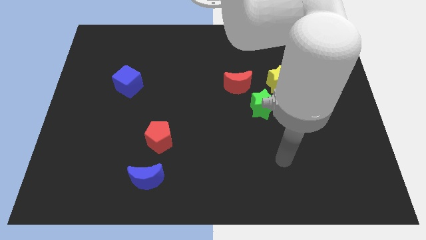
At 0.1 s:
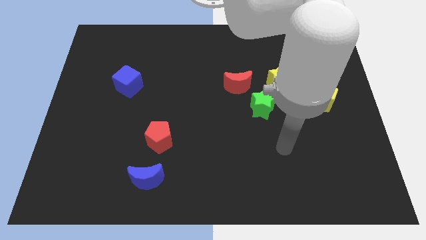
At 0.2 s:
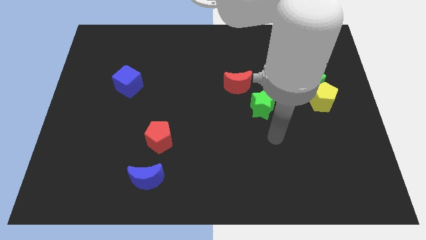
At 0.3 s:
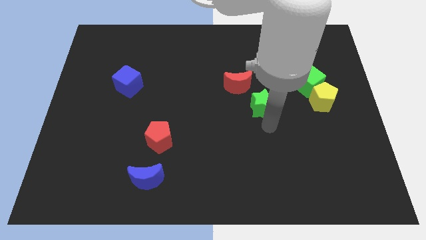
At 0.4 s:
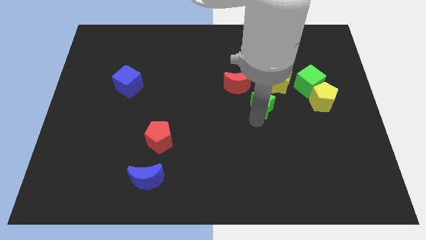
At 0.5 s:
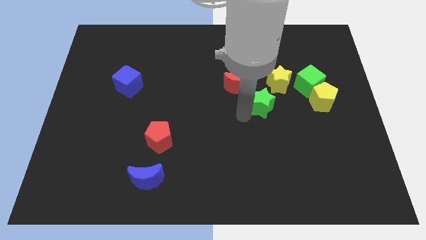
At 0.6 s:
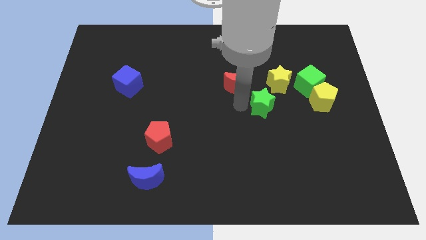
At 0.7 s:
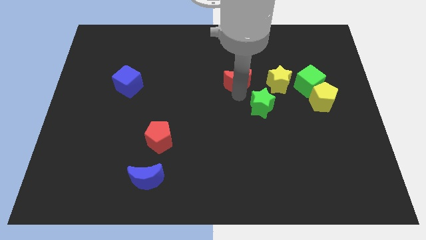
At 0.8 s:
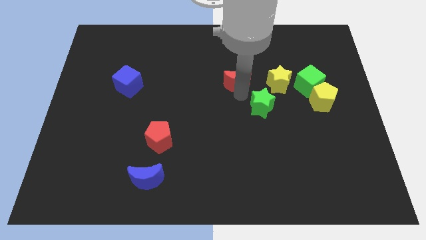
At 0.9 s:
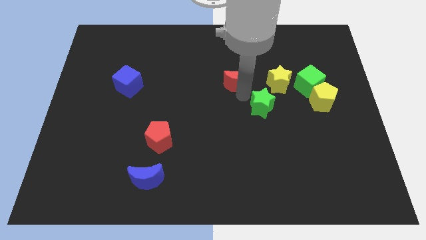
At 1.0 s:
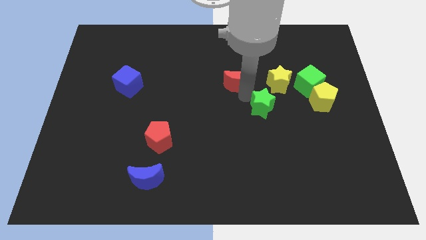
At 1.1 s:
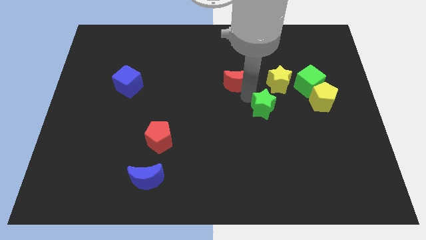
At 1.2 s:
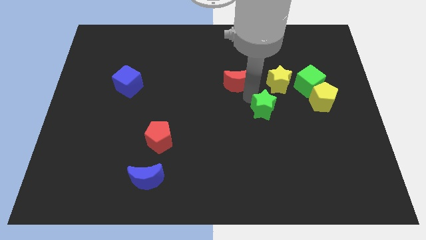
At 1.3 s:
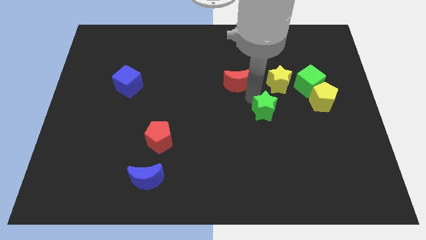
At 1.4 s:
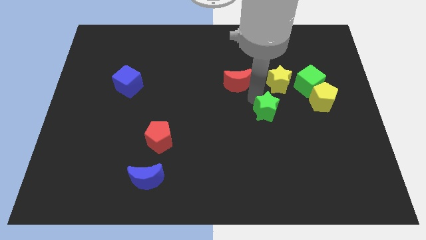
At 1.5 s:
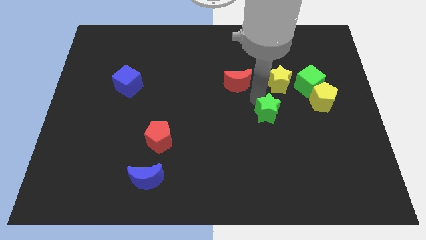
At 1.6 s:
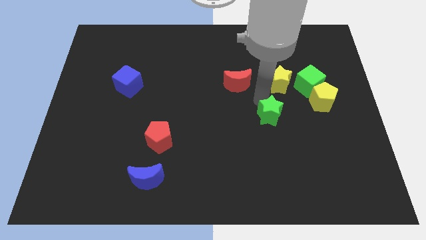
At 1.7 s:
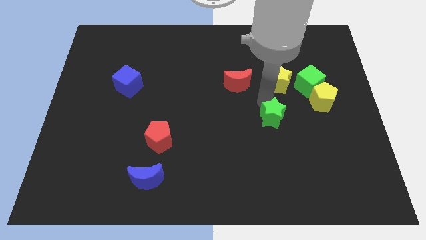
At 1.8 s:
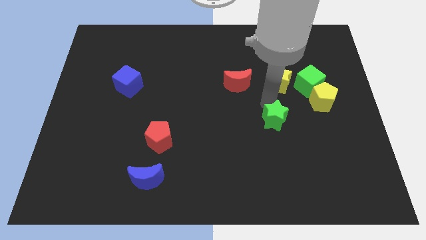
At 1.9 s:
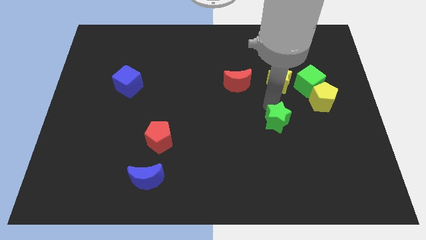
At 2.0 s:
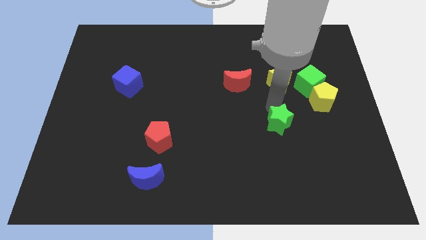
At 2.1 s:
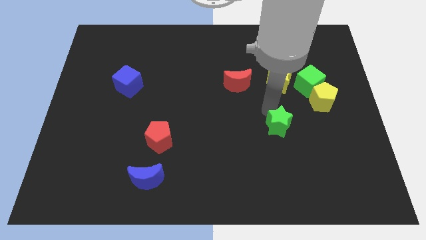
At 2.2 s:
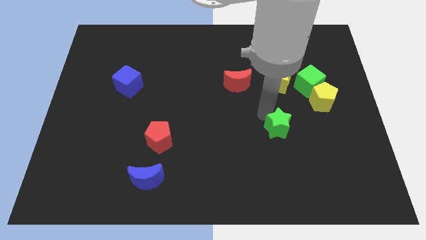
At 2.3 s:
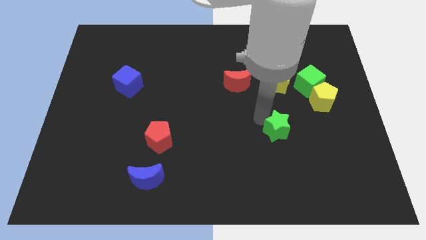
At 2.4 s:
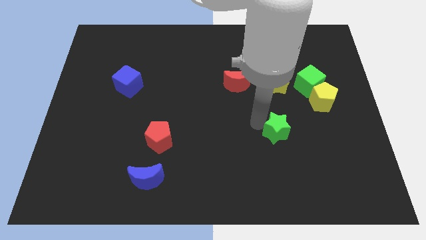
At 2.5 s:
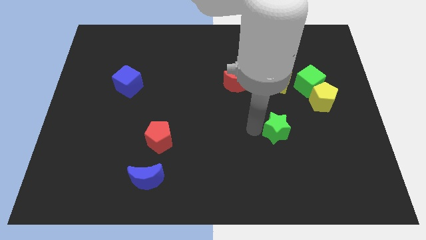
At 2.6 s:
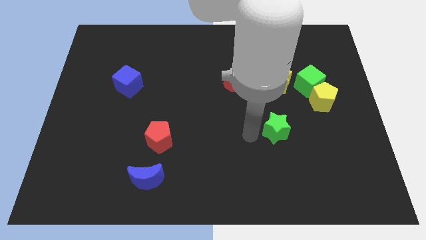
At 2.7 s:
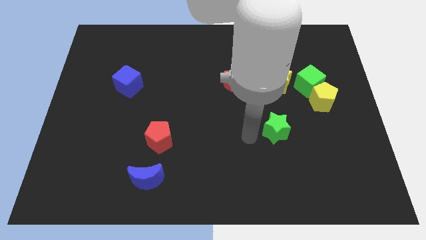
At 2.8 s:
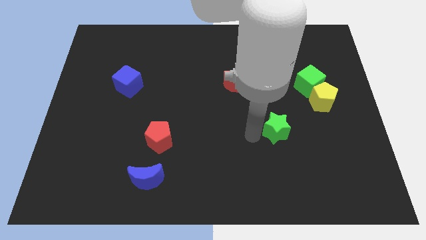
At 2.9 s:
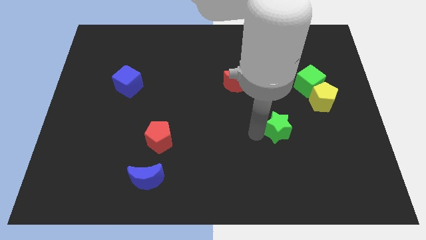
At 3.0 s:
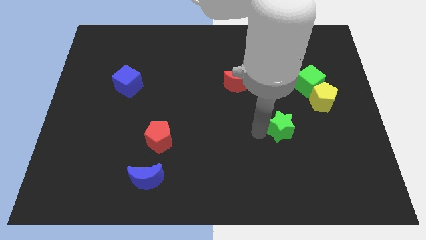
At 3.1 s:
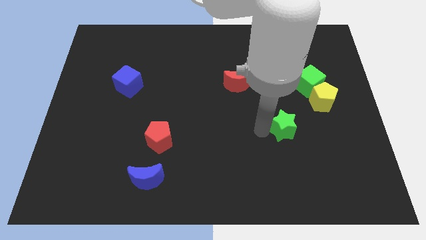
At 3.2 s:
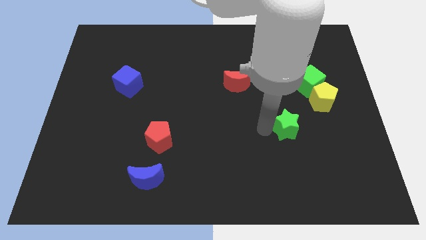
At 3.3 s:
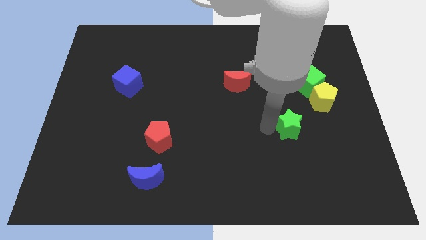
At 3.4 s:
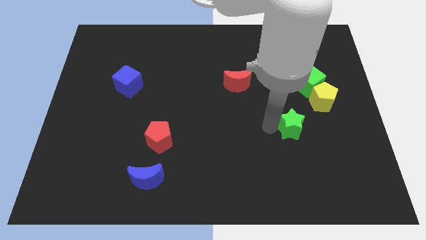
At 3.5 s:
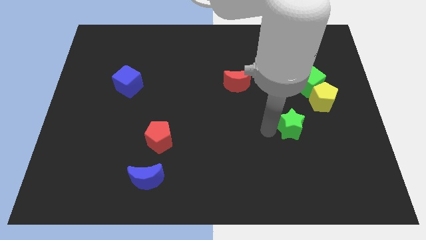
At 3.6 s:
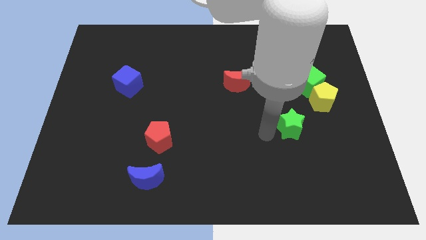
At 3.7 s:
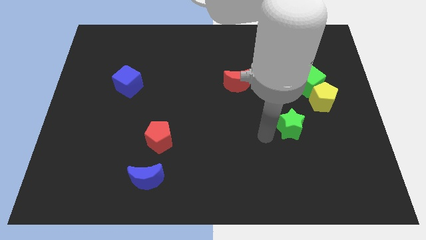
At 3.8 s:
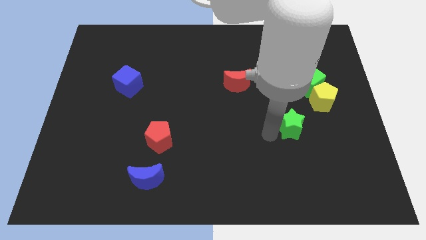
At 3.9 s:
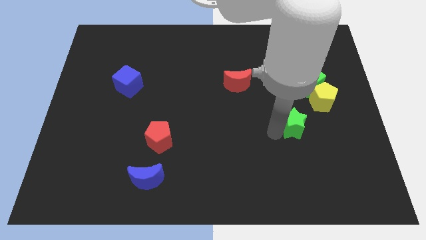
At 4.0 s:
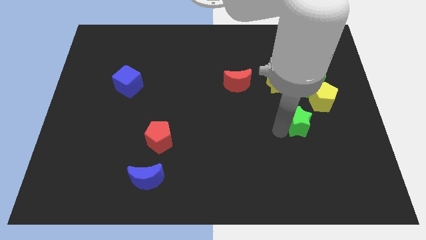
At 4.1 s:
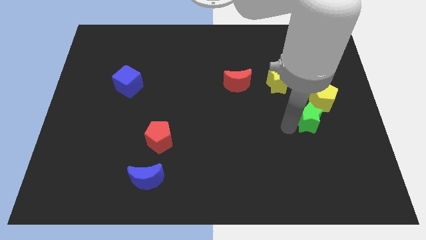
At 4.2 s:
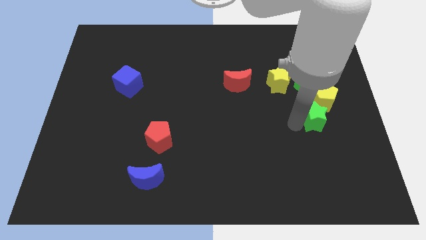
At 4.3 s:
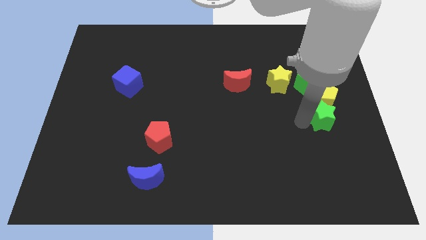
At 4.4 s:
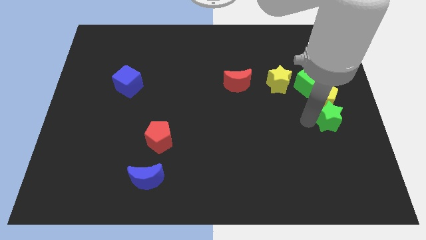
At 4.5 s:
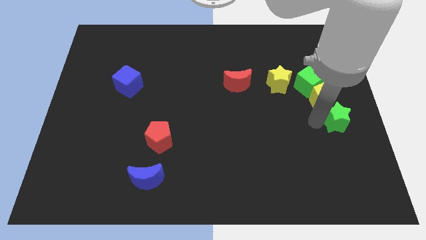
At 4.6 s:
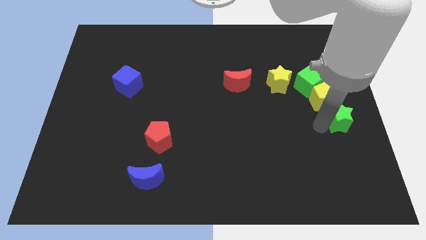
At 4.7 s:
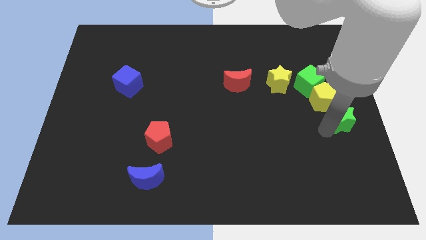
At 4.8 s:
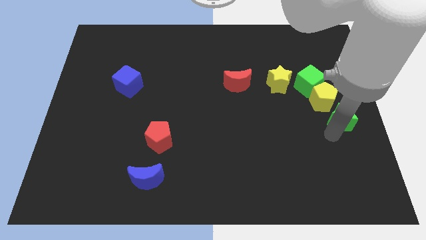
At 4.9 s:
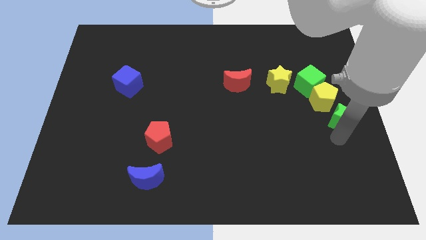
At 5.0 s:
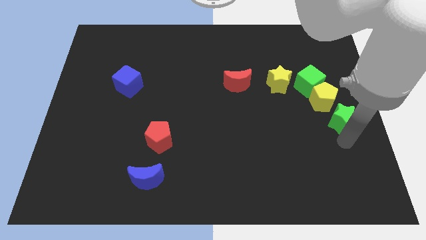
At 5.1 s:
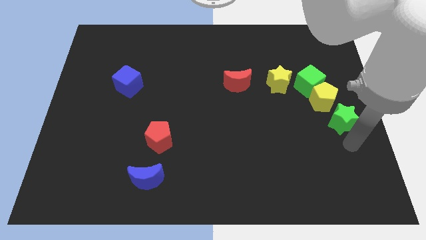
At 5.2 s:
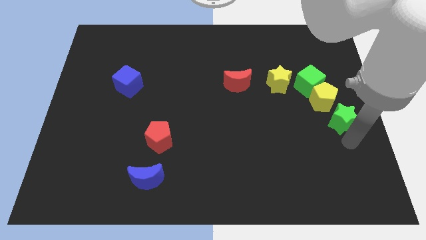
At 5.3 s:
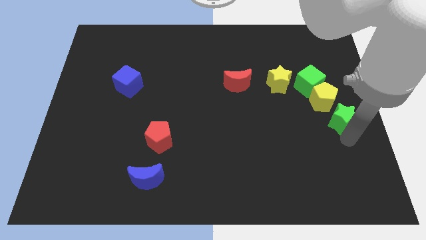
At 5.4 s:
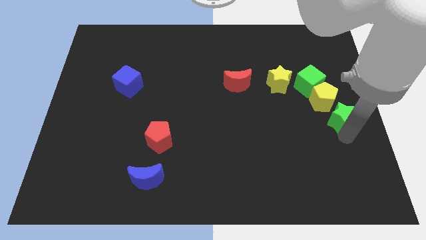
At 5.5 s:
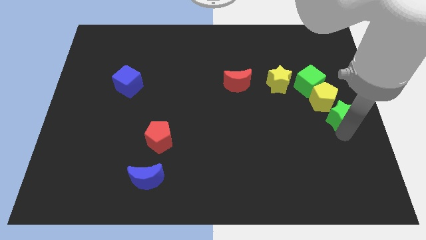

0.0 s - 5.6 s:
move the green star to the bottom right side of the green cube

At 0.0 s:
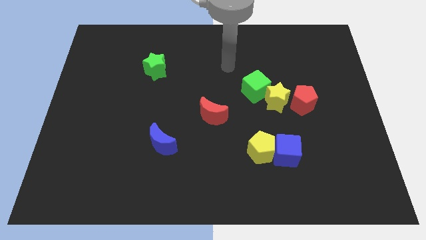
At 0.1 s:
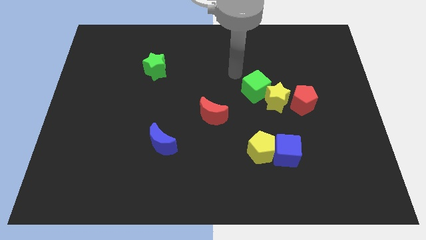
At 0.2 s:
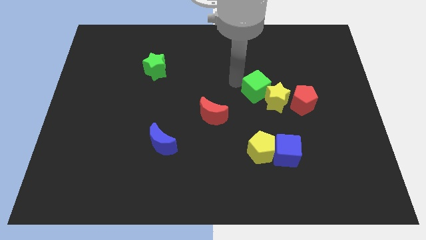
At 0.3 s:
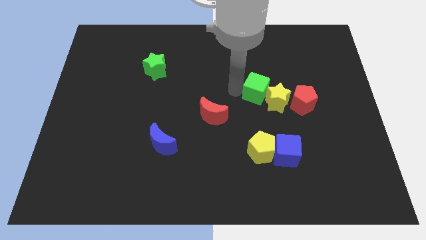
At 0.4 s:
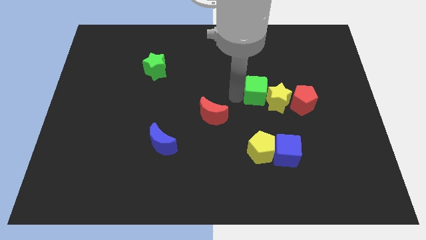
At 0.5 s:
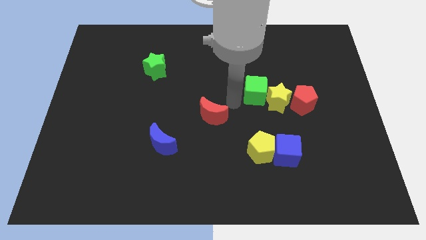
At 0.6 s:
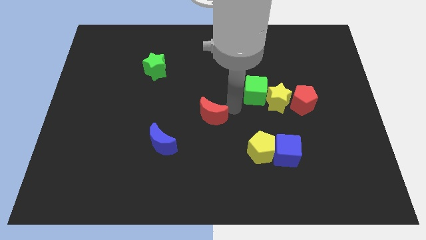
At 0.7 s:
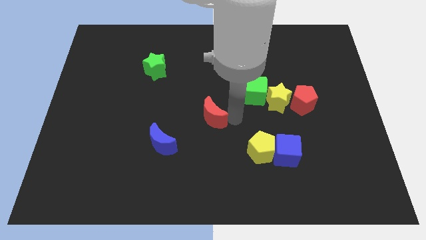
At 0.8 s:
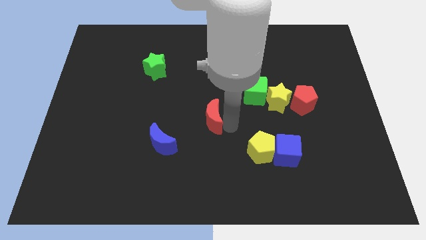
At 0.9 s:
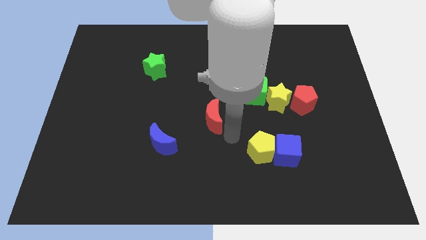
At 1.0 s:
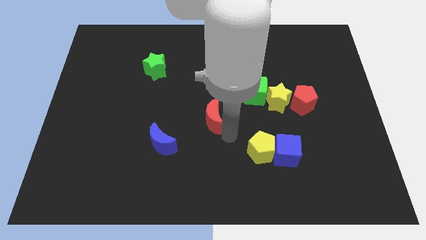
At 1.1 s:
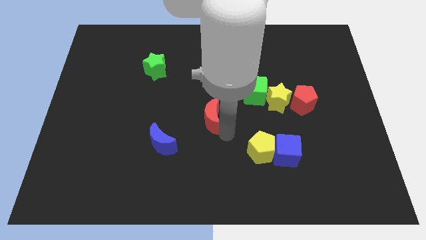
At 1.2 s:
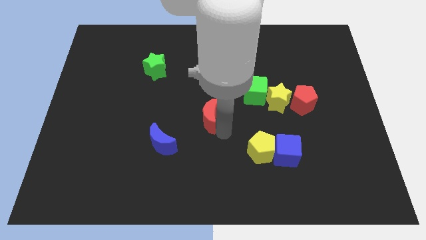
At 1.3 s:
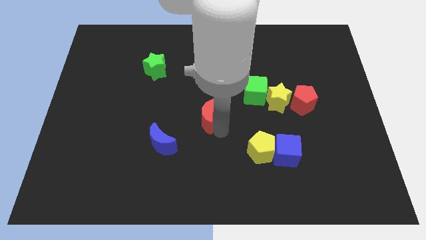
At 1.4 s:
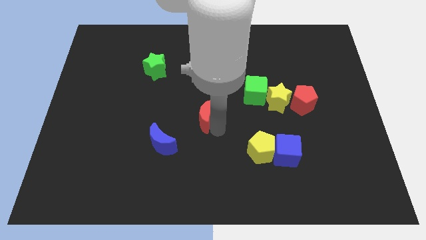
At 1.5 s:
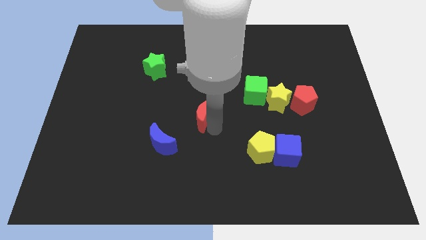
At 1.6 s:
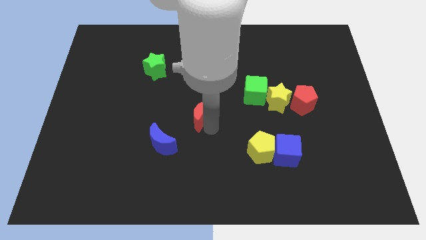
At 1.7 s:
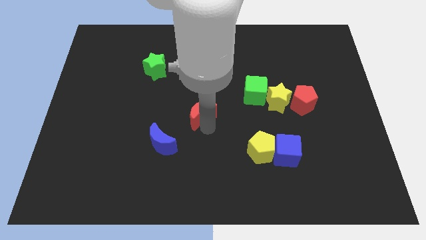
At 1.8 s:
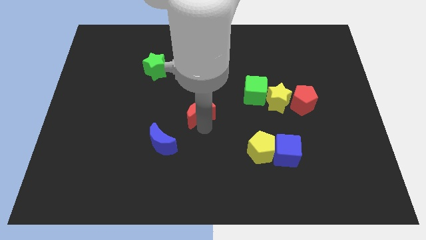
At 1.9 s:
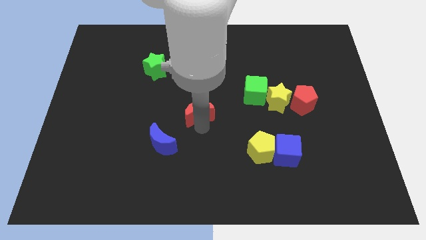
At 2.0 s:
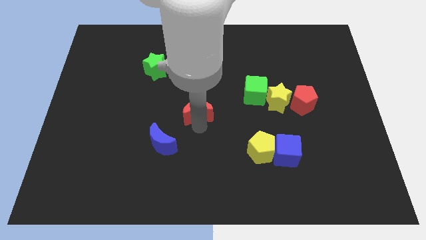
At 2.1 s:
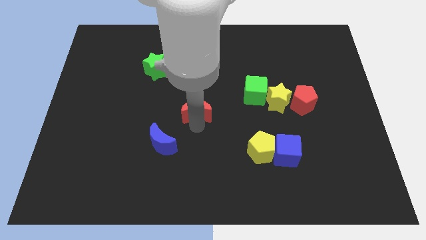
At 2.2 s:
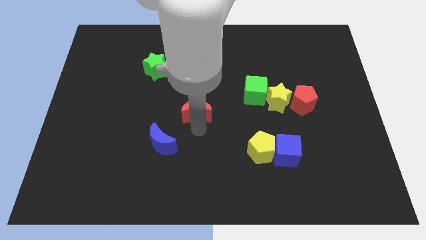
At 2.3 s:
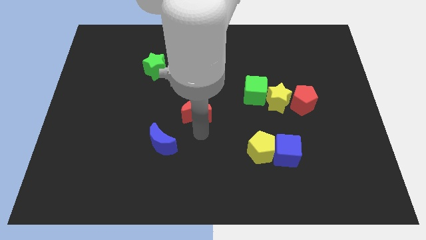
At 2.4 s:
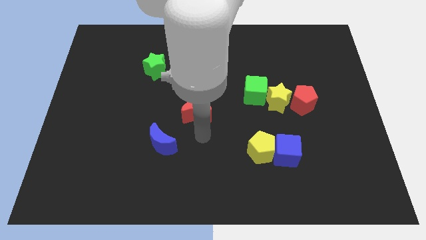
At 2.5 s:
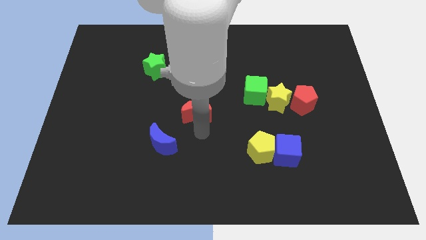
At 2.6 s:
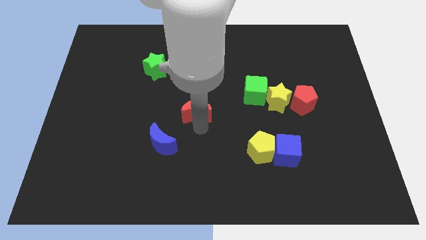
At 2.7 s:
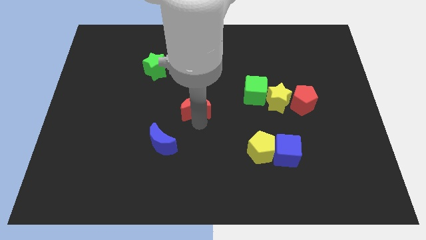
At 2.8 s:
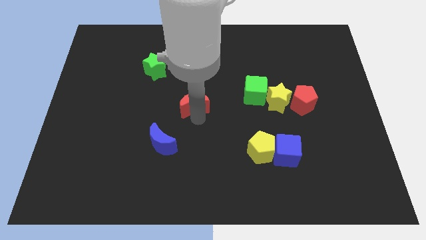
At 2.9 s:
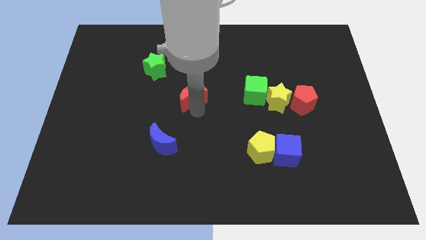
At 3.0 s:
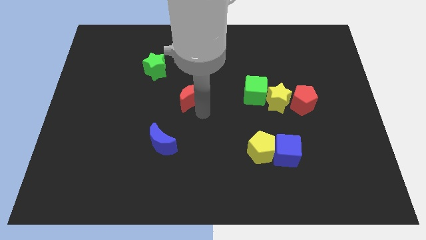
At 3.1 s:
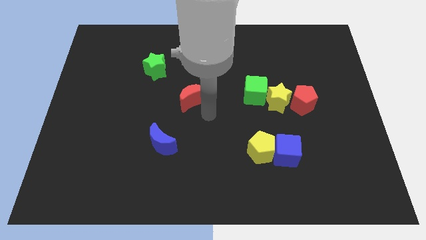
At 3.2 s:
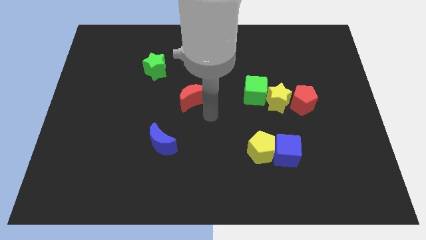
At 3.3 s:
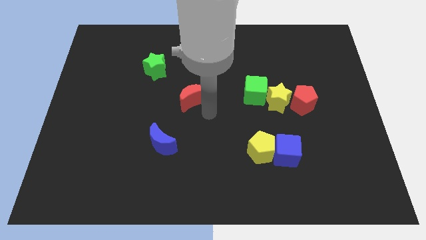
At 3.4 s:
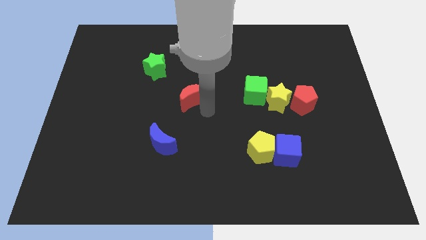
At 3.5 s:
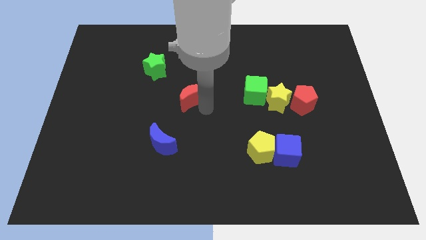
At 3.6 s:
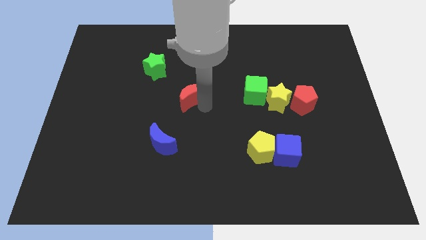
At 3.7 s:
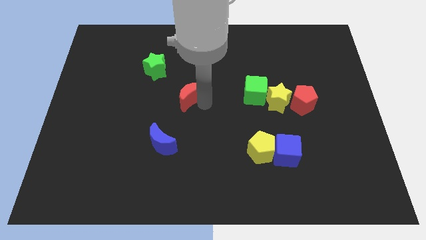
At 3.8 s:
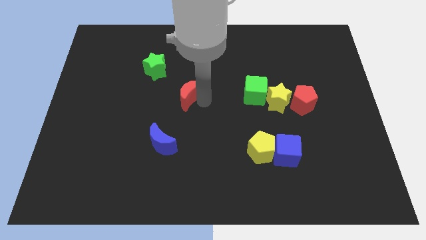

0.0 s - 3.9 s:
slide the red moon diagonally down and to the right of the green star
